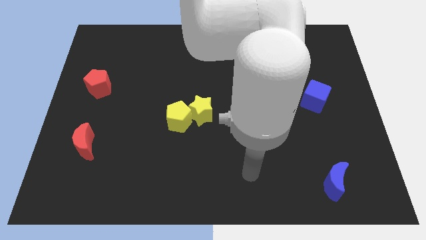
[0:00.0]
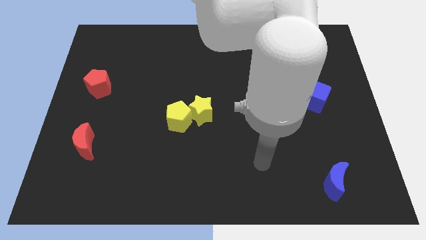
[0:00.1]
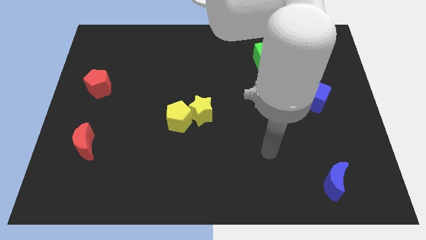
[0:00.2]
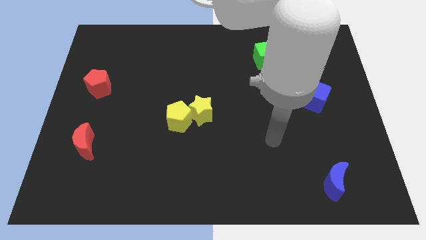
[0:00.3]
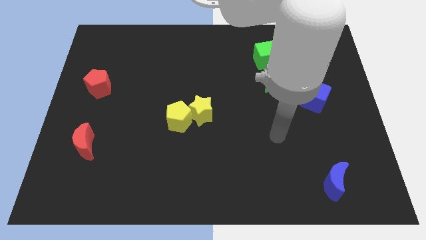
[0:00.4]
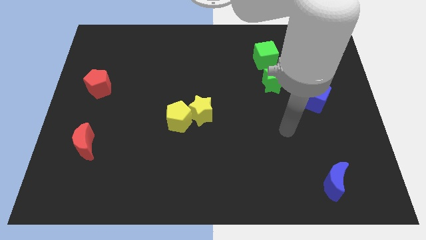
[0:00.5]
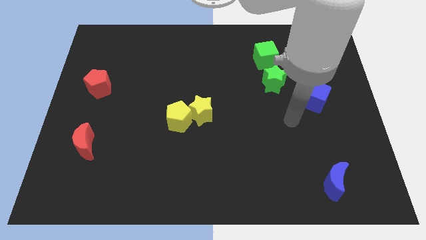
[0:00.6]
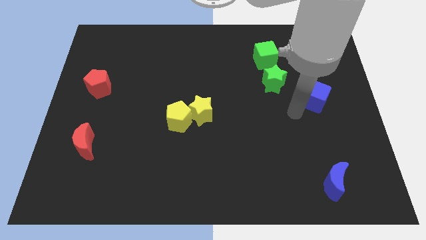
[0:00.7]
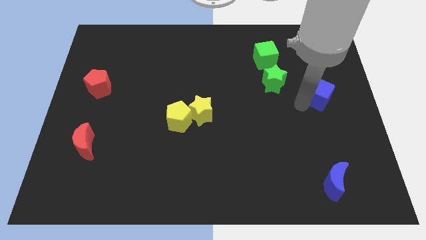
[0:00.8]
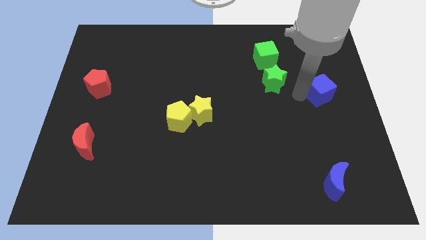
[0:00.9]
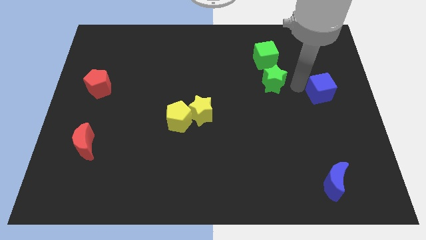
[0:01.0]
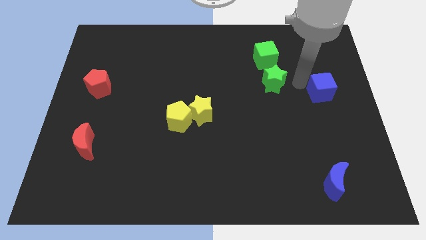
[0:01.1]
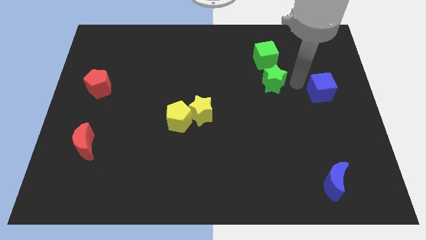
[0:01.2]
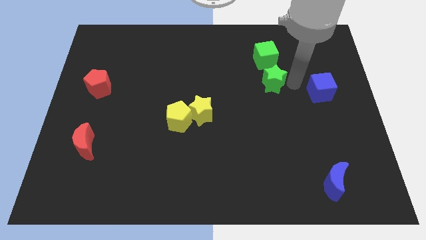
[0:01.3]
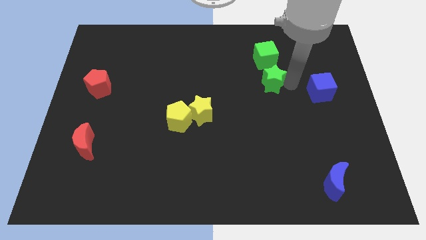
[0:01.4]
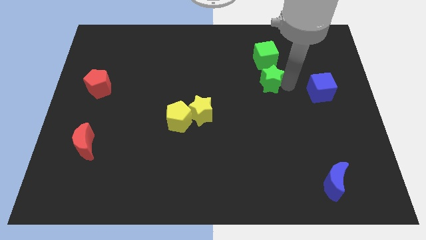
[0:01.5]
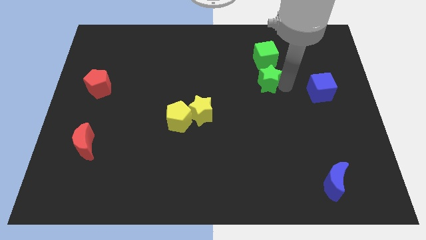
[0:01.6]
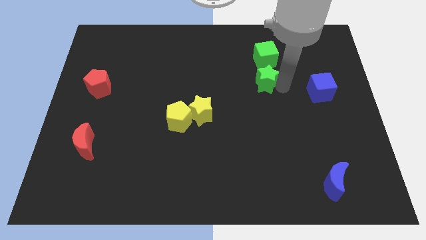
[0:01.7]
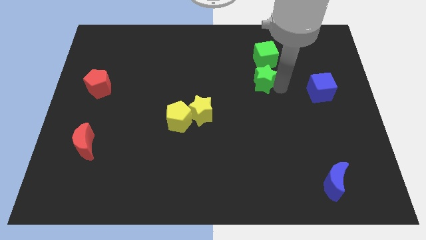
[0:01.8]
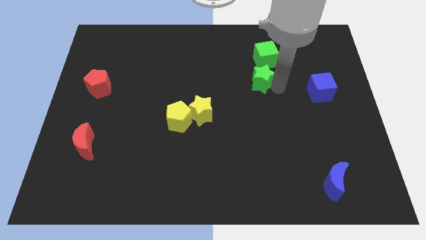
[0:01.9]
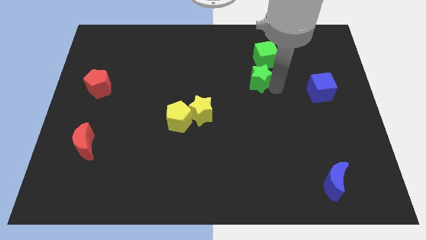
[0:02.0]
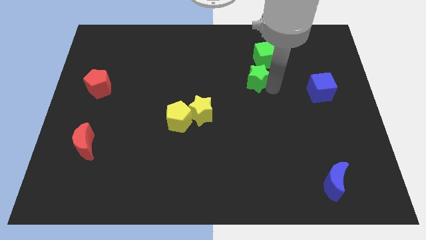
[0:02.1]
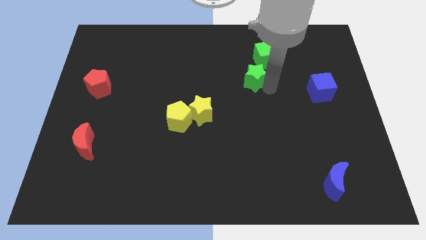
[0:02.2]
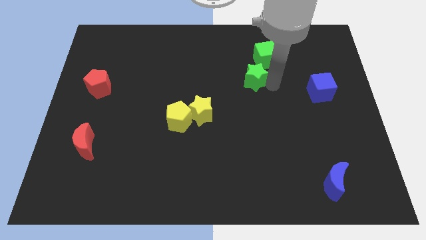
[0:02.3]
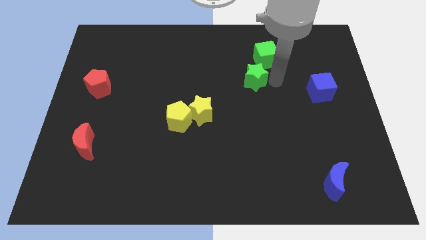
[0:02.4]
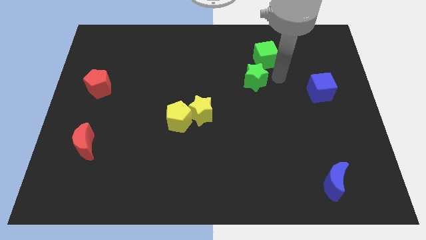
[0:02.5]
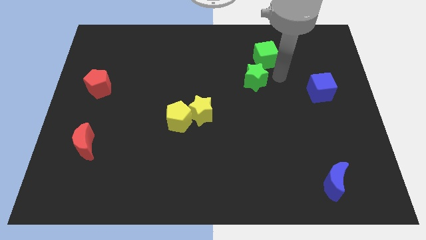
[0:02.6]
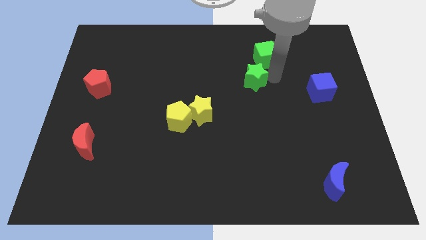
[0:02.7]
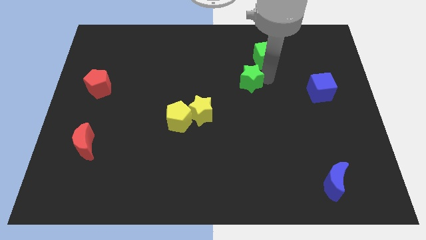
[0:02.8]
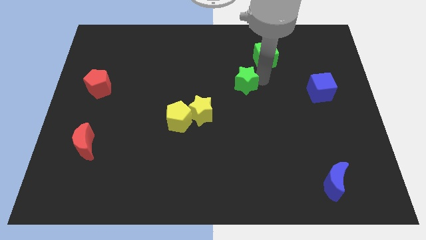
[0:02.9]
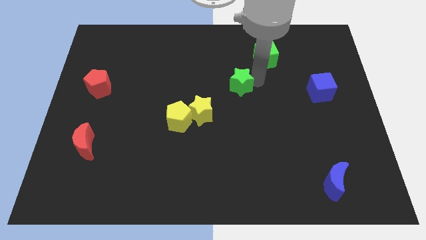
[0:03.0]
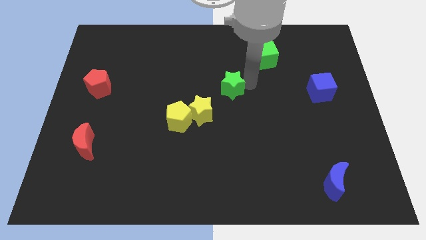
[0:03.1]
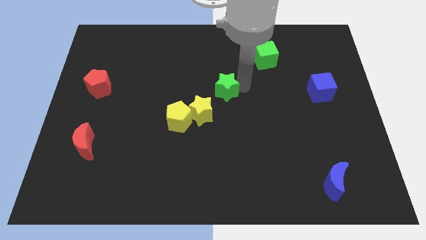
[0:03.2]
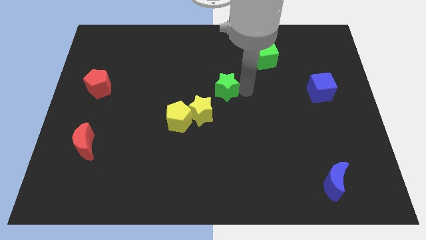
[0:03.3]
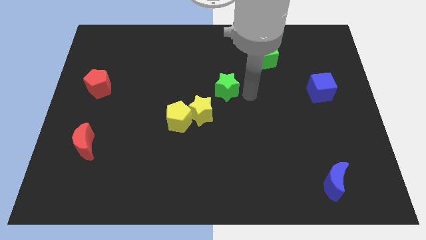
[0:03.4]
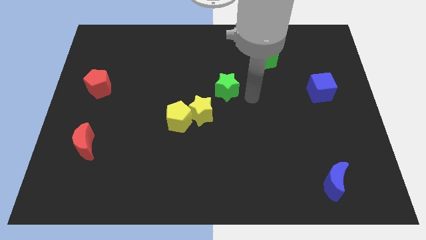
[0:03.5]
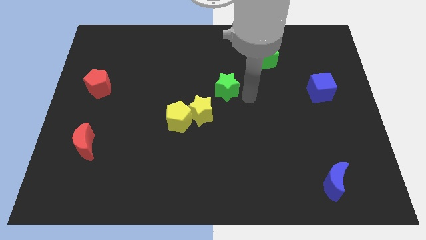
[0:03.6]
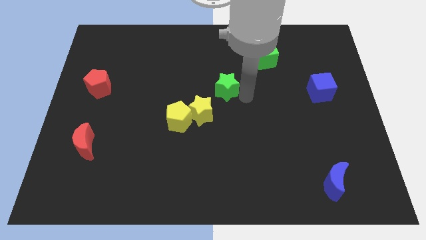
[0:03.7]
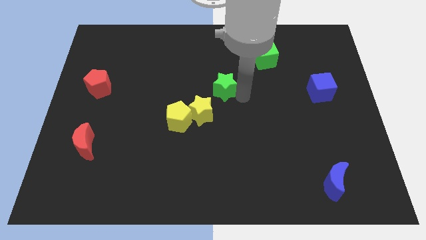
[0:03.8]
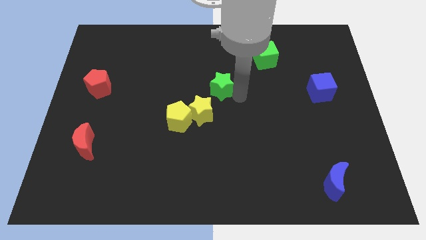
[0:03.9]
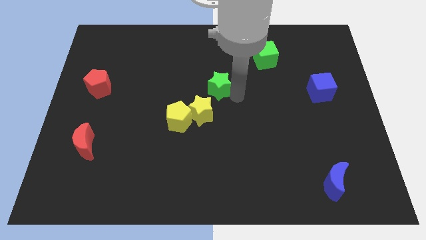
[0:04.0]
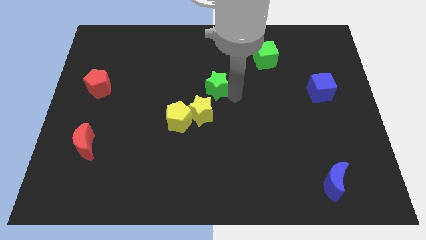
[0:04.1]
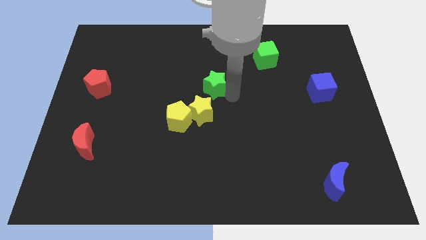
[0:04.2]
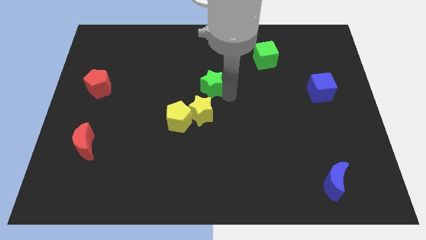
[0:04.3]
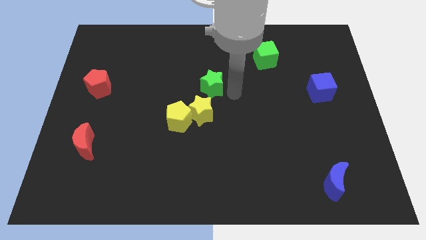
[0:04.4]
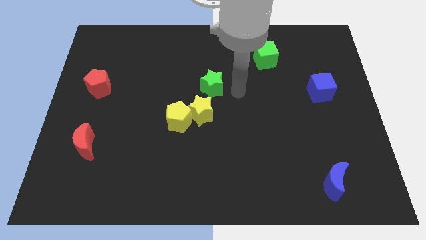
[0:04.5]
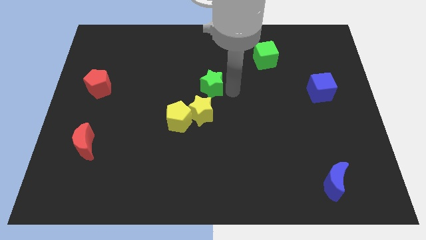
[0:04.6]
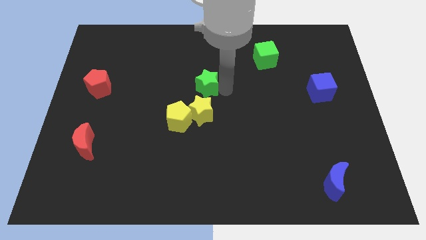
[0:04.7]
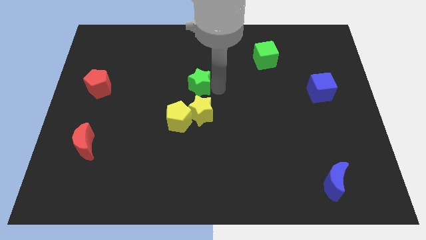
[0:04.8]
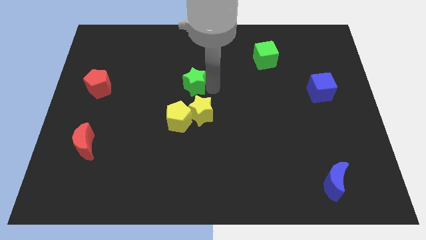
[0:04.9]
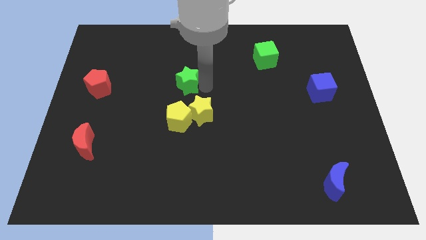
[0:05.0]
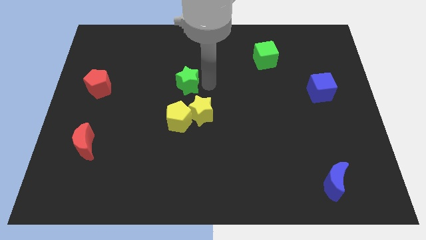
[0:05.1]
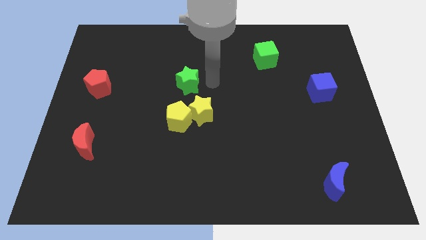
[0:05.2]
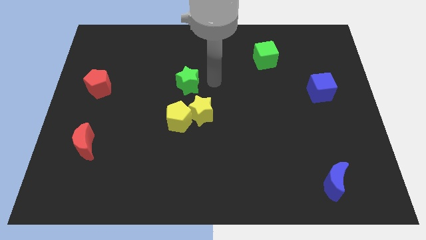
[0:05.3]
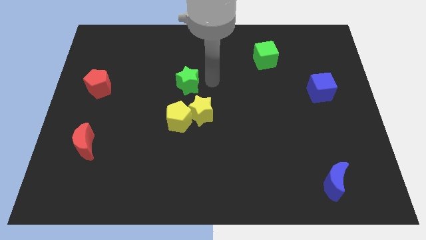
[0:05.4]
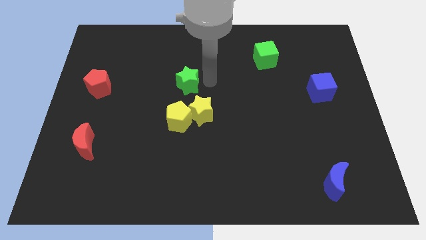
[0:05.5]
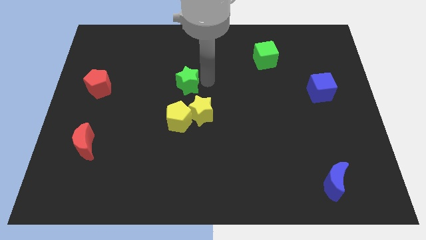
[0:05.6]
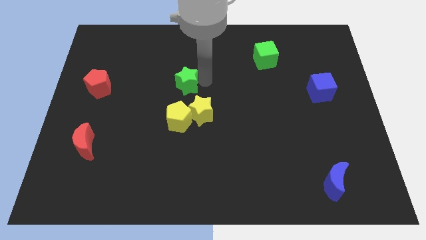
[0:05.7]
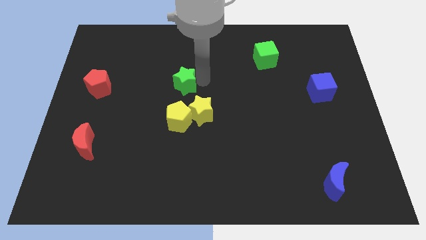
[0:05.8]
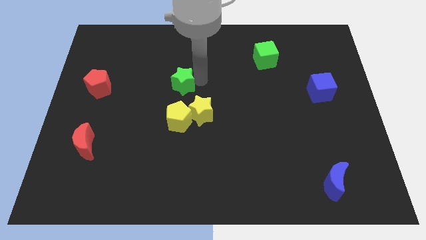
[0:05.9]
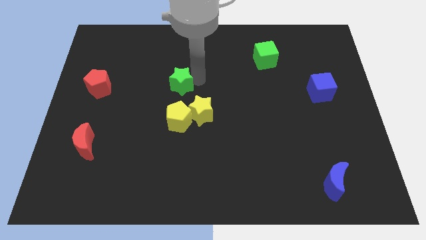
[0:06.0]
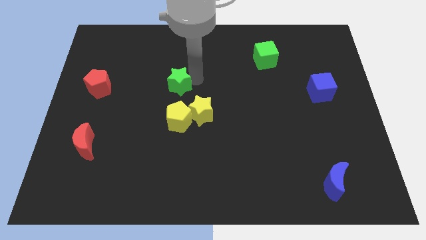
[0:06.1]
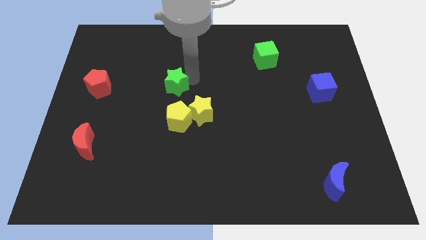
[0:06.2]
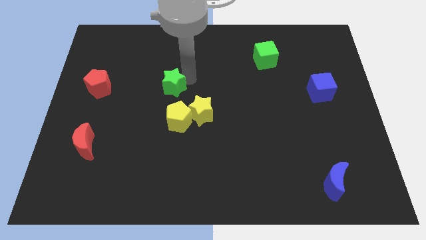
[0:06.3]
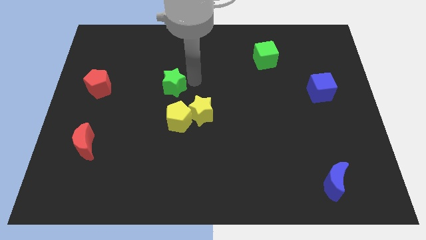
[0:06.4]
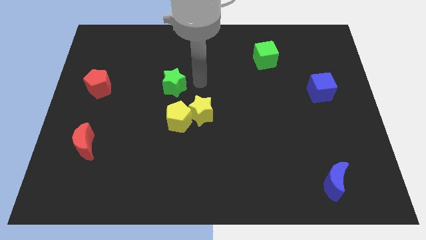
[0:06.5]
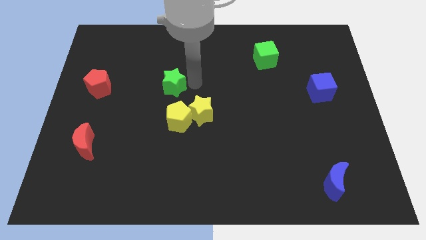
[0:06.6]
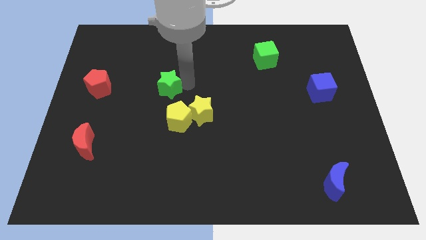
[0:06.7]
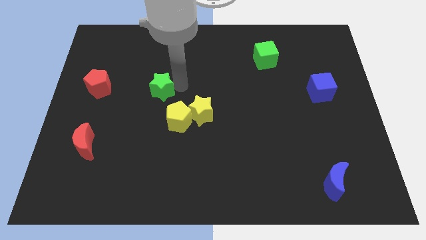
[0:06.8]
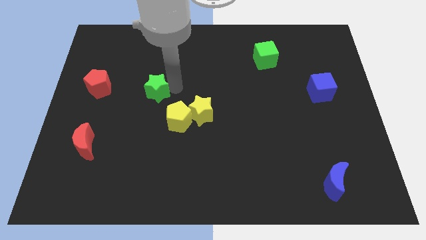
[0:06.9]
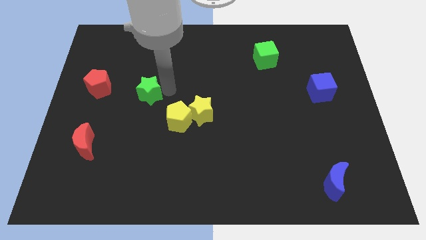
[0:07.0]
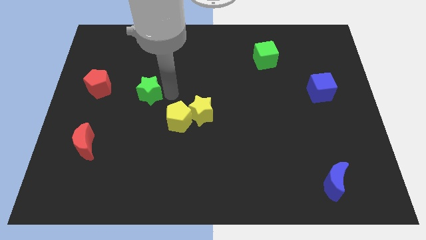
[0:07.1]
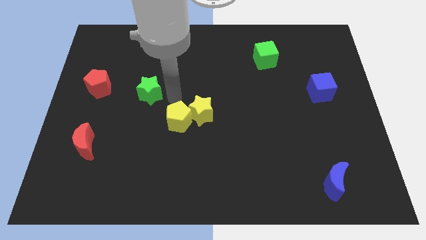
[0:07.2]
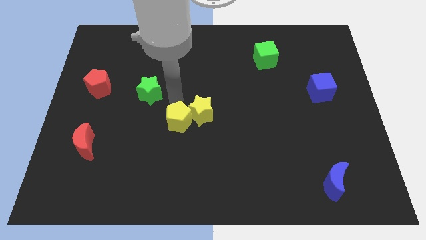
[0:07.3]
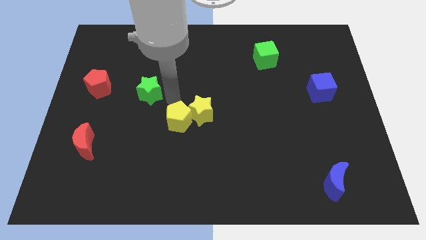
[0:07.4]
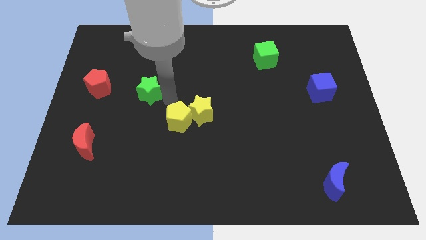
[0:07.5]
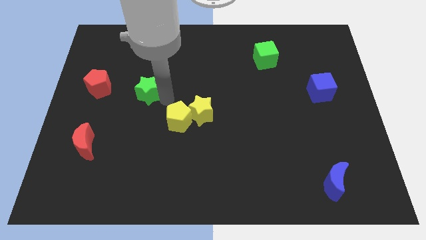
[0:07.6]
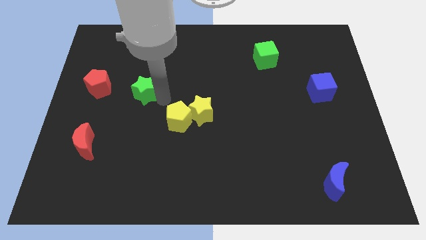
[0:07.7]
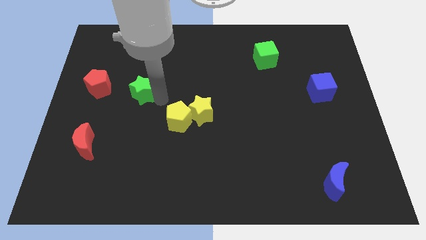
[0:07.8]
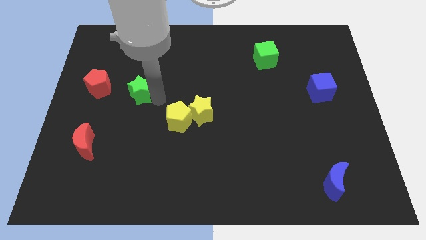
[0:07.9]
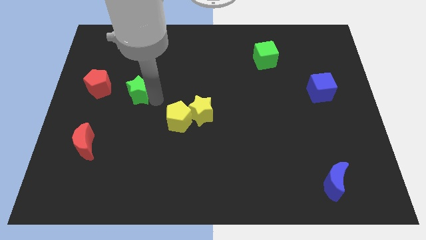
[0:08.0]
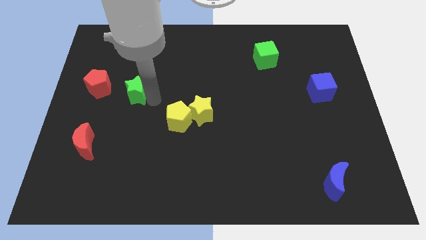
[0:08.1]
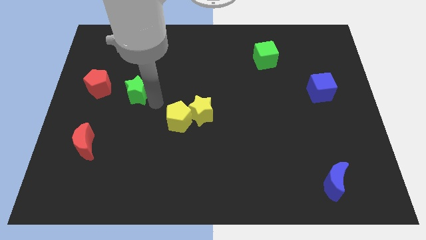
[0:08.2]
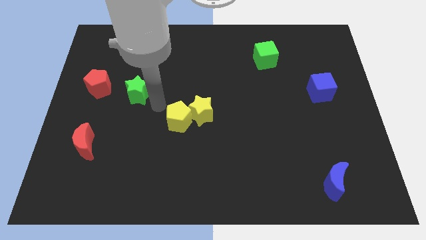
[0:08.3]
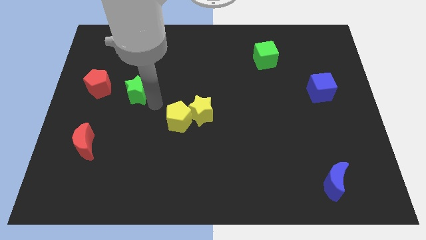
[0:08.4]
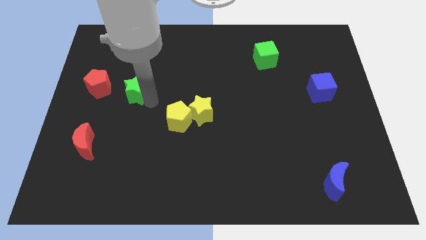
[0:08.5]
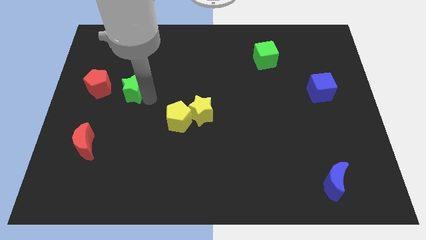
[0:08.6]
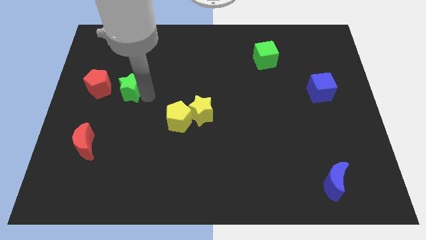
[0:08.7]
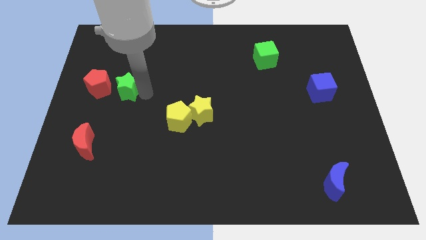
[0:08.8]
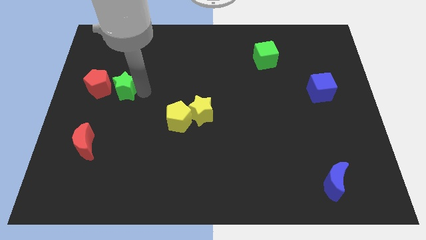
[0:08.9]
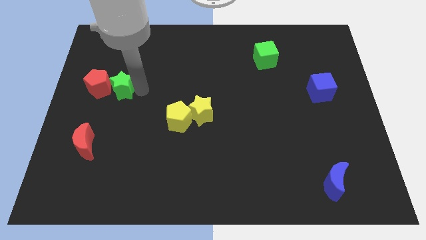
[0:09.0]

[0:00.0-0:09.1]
put the green star to the red pentagon
